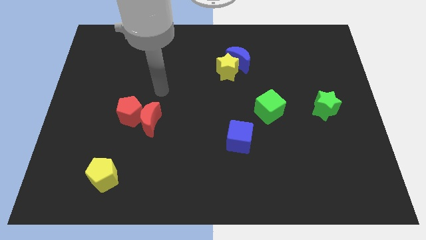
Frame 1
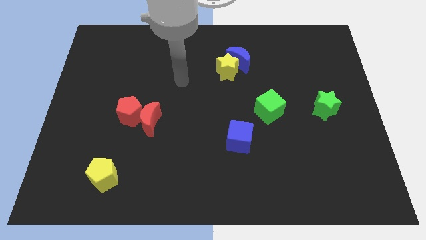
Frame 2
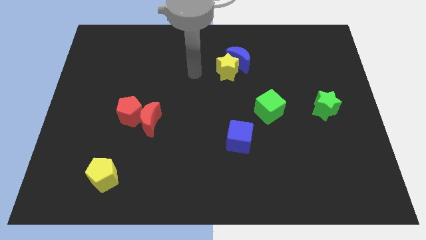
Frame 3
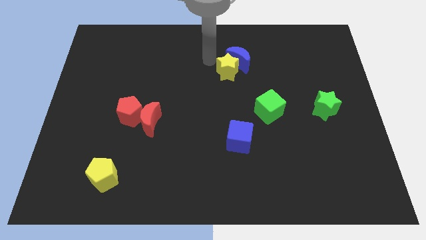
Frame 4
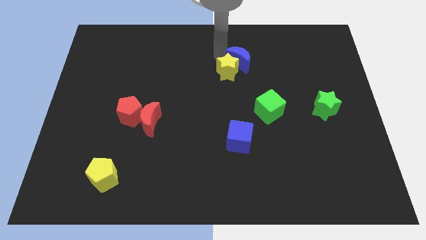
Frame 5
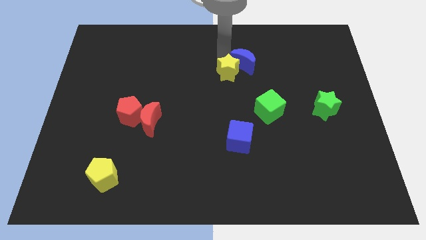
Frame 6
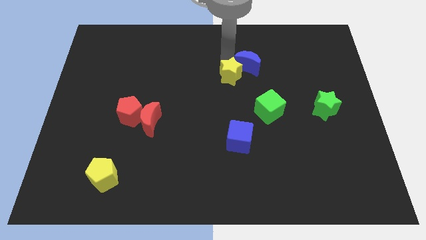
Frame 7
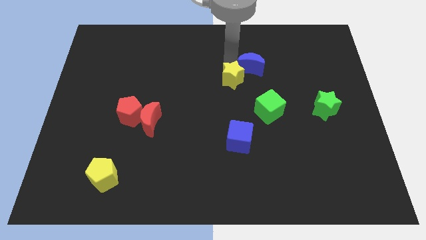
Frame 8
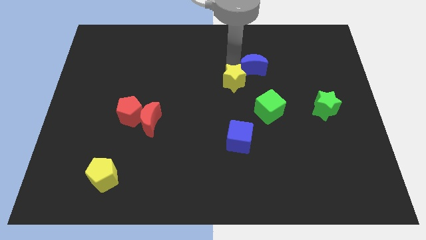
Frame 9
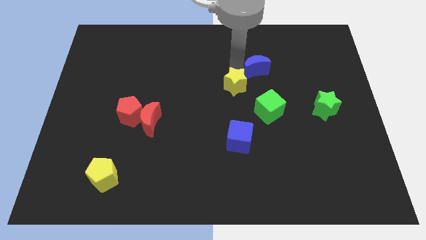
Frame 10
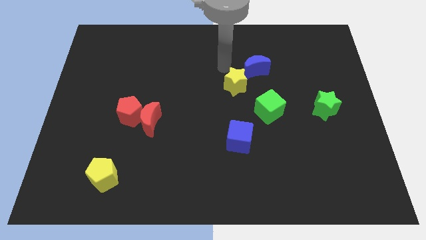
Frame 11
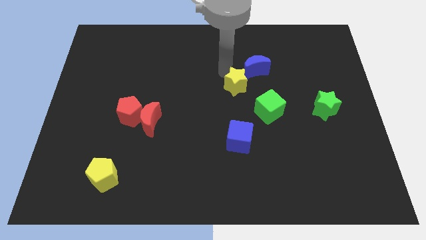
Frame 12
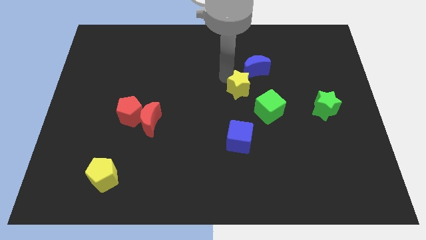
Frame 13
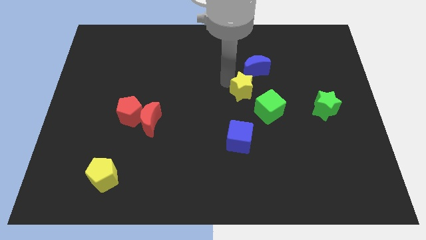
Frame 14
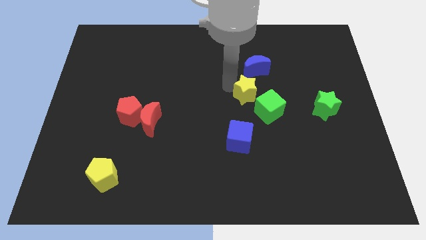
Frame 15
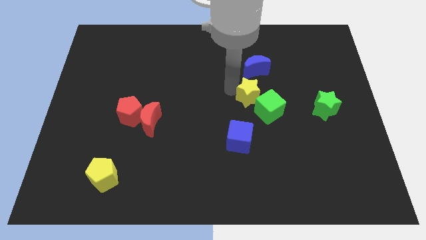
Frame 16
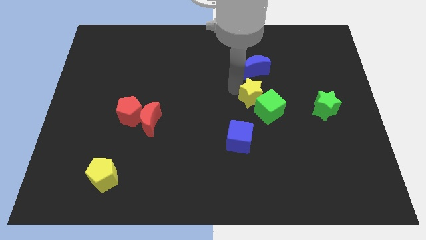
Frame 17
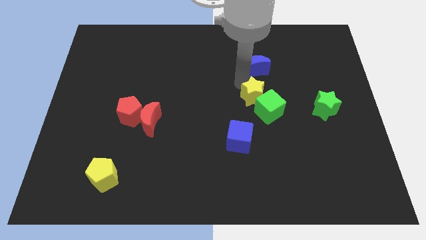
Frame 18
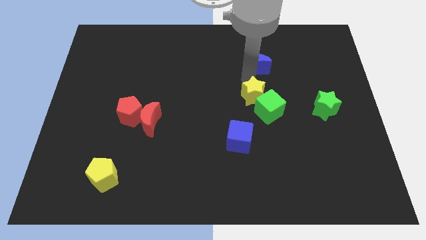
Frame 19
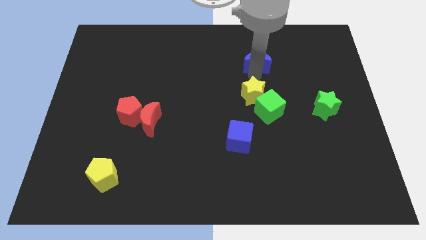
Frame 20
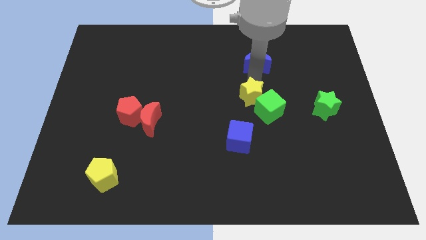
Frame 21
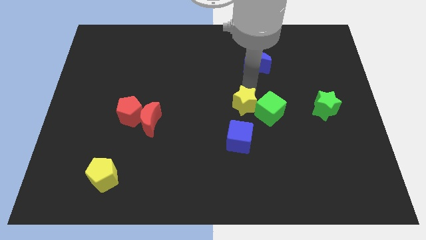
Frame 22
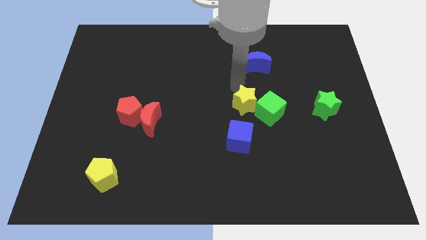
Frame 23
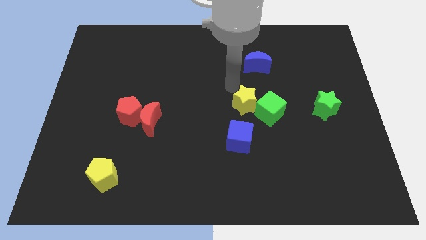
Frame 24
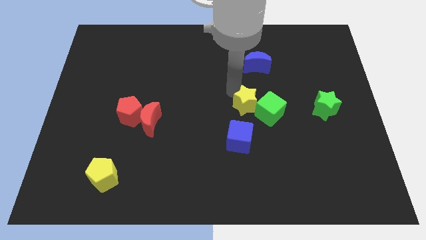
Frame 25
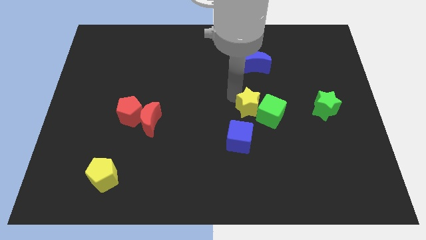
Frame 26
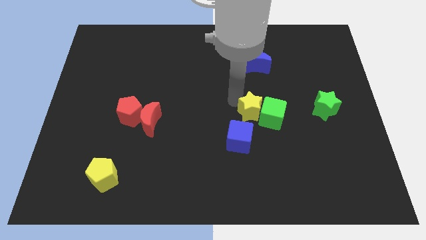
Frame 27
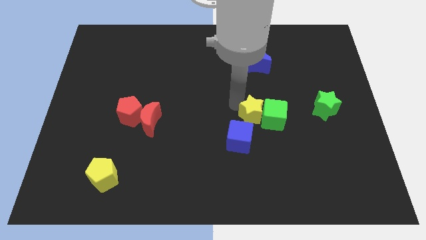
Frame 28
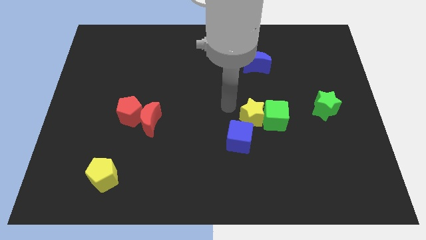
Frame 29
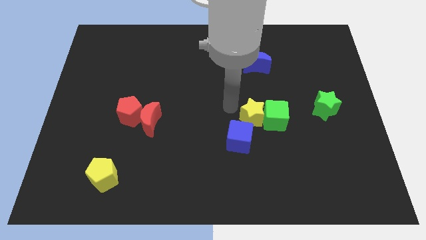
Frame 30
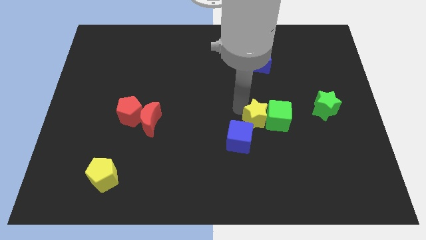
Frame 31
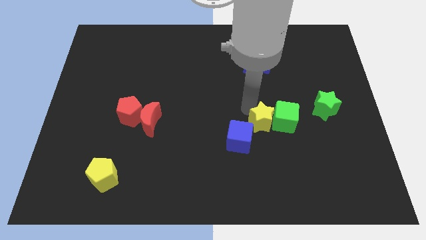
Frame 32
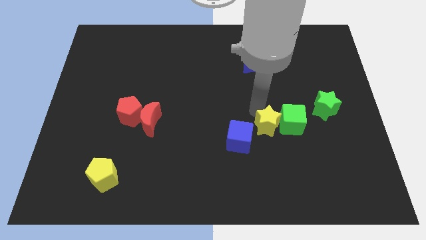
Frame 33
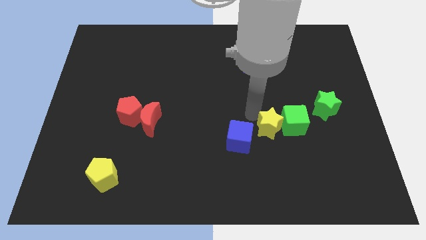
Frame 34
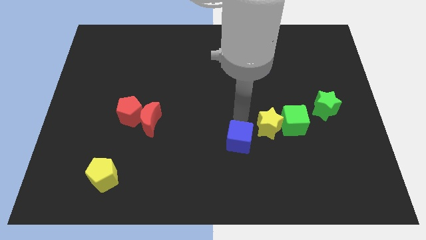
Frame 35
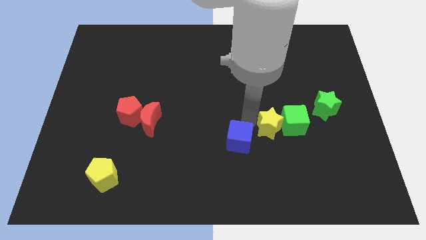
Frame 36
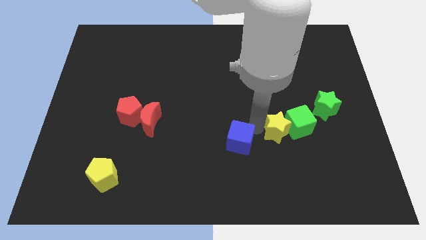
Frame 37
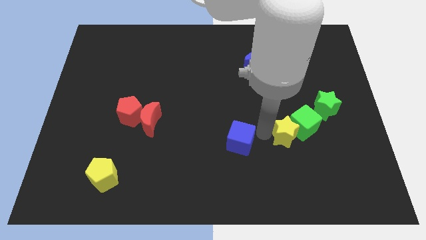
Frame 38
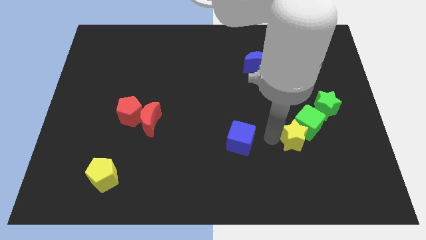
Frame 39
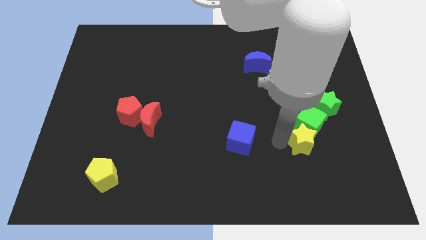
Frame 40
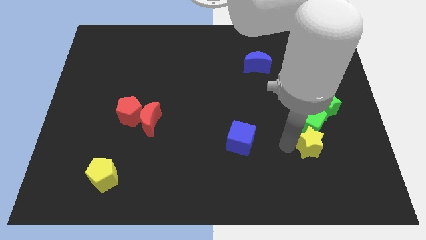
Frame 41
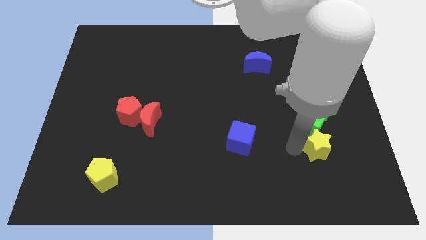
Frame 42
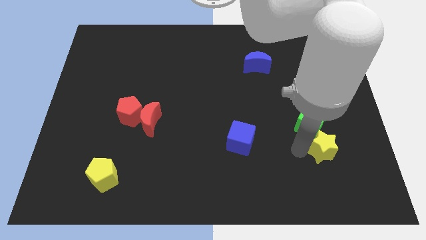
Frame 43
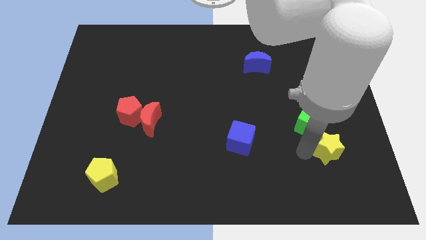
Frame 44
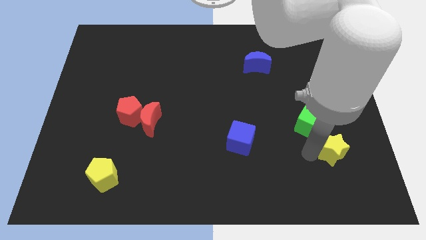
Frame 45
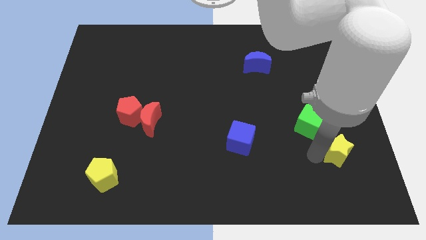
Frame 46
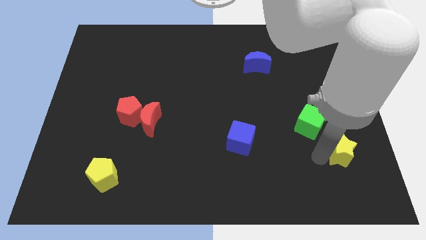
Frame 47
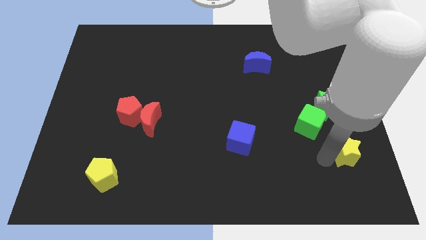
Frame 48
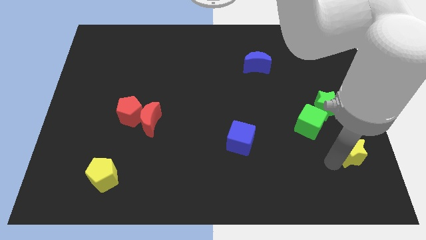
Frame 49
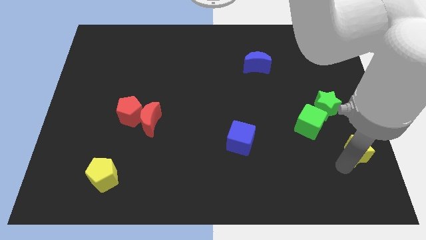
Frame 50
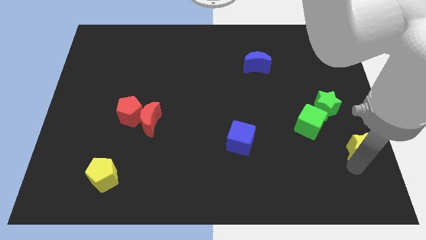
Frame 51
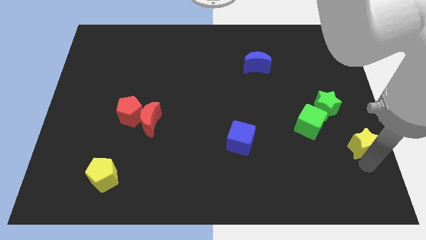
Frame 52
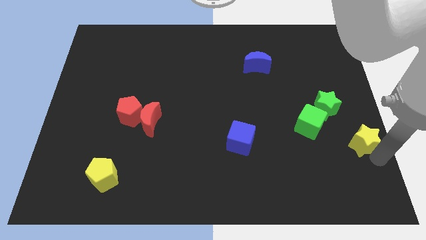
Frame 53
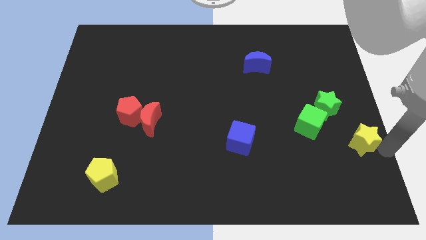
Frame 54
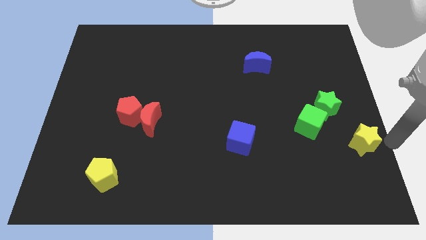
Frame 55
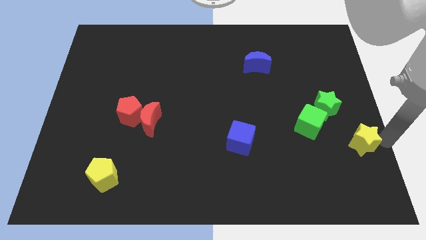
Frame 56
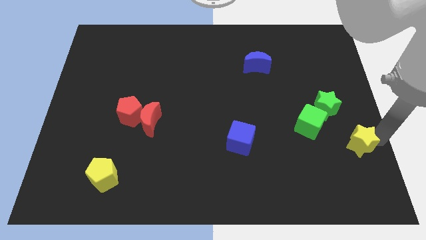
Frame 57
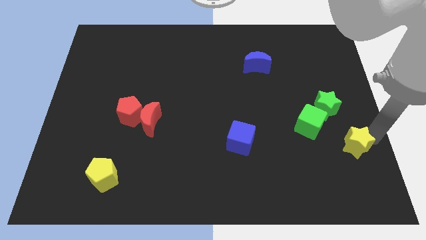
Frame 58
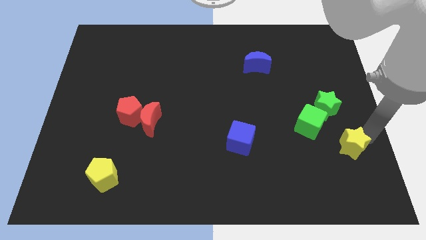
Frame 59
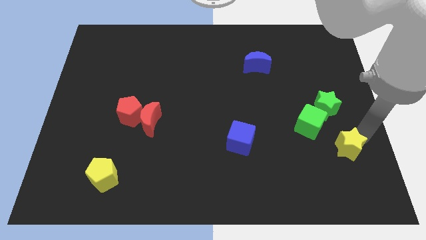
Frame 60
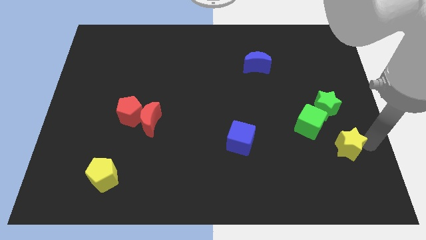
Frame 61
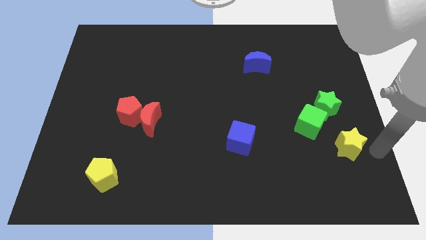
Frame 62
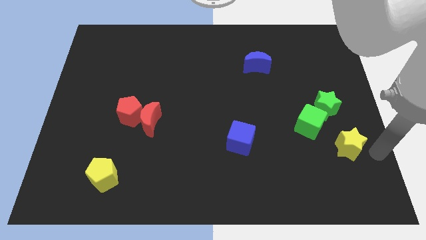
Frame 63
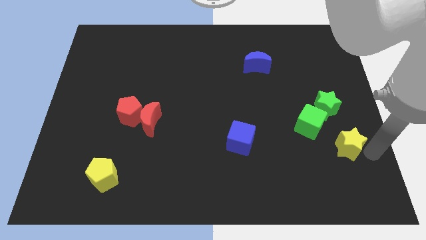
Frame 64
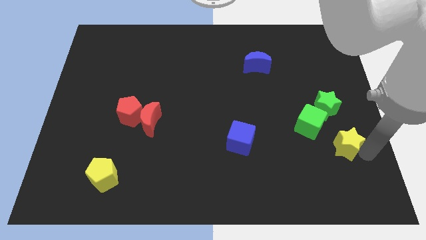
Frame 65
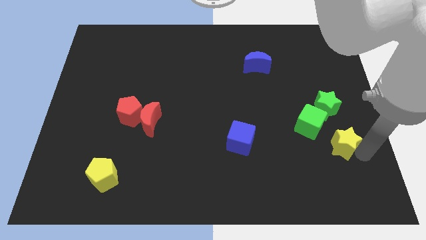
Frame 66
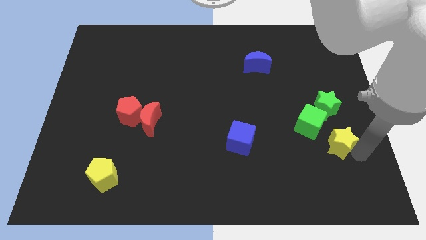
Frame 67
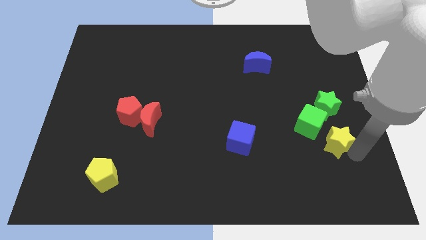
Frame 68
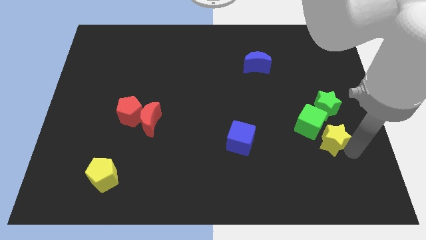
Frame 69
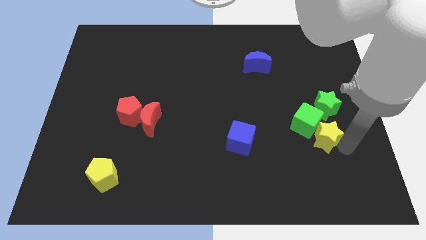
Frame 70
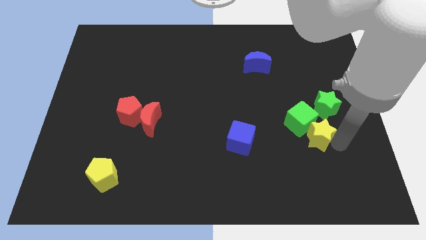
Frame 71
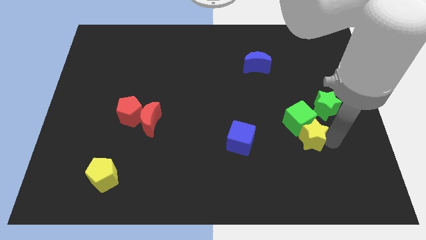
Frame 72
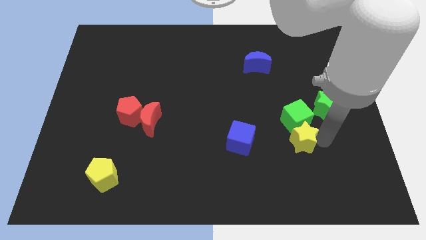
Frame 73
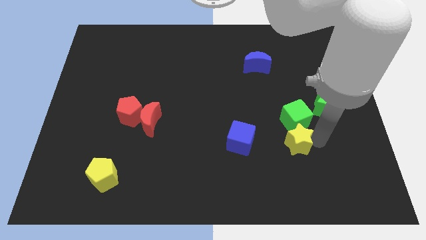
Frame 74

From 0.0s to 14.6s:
slide the yellow star to the bottom right of the green cube
